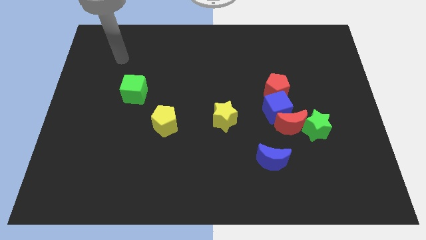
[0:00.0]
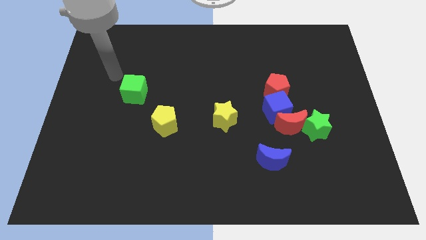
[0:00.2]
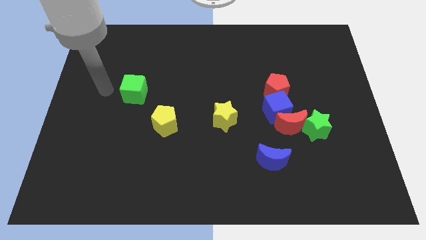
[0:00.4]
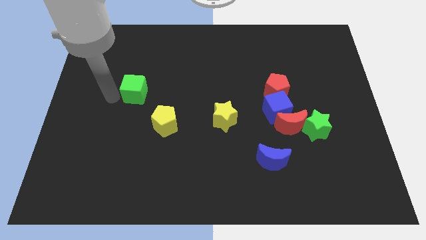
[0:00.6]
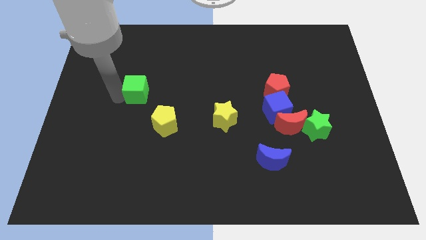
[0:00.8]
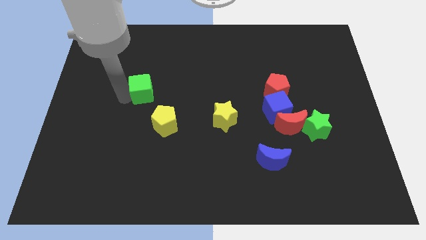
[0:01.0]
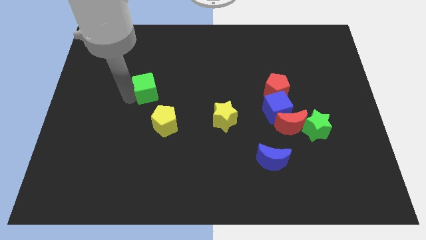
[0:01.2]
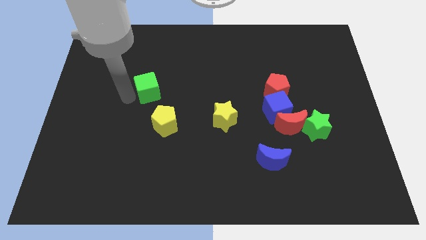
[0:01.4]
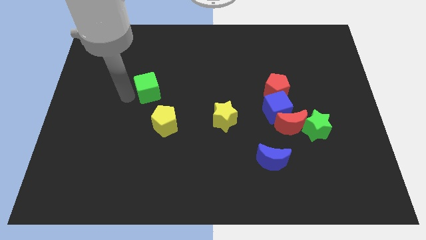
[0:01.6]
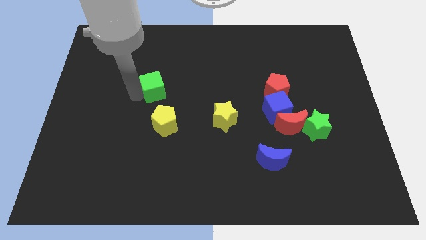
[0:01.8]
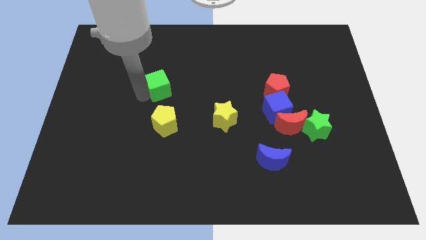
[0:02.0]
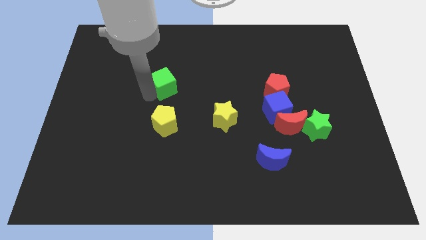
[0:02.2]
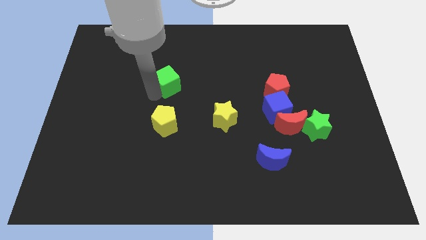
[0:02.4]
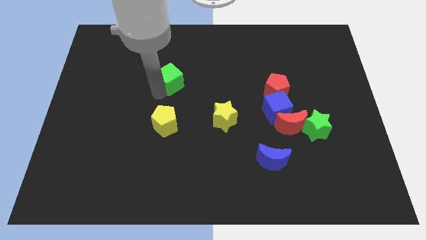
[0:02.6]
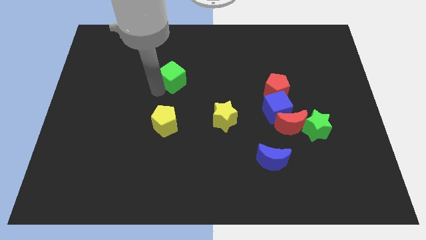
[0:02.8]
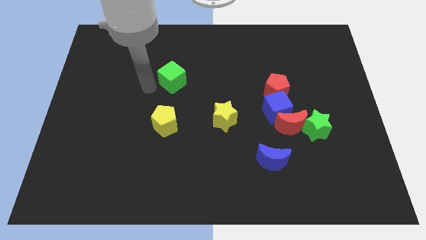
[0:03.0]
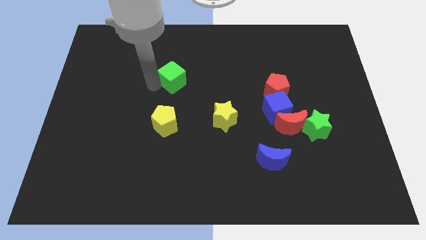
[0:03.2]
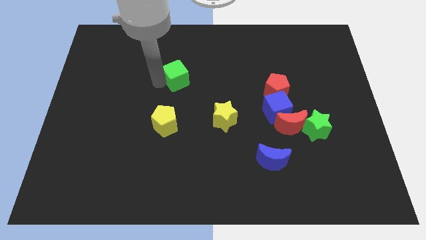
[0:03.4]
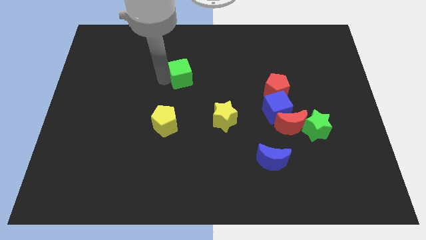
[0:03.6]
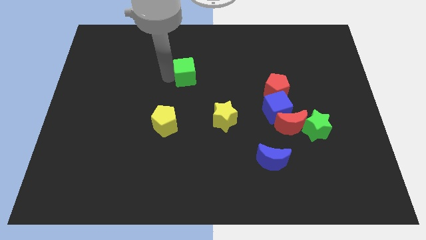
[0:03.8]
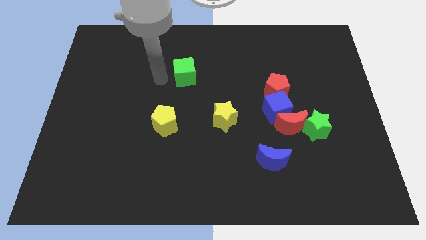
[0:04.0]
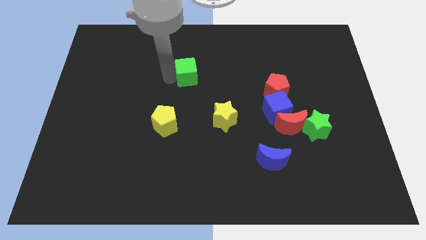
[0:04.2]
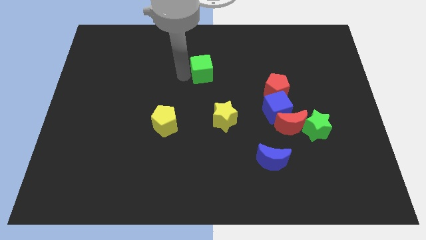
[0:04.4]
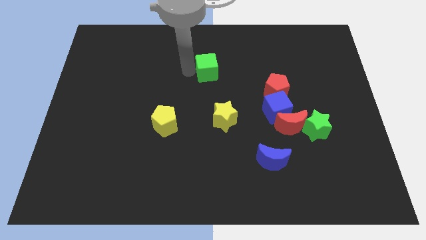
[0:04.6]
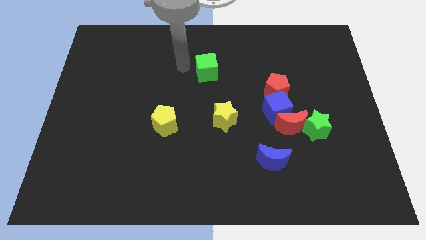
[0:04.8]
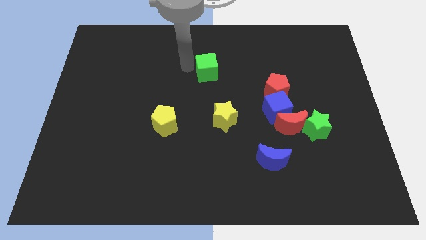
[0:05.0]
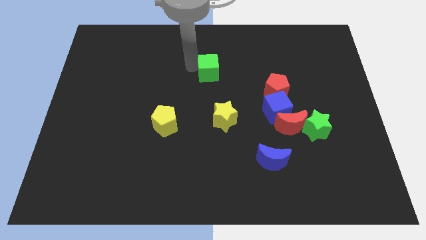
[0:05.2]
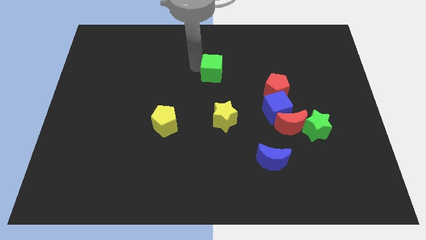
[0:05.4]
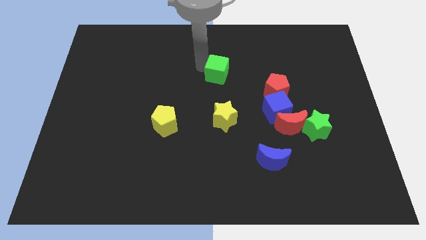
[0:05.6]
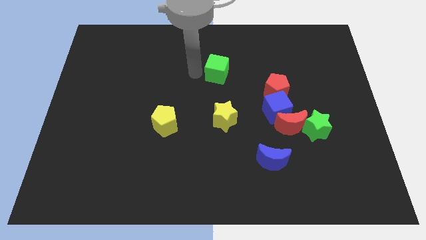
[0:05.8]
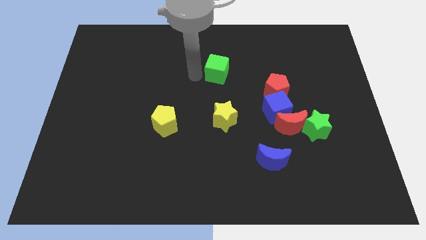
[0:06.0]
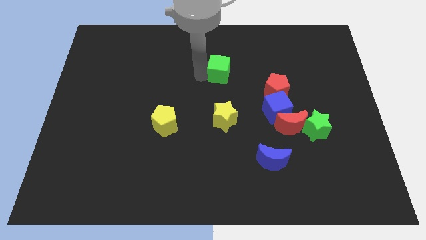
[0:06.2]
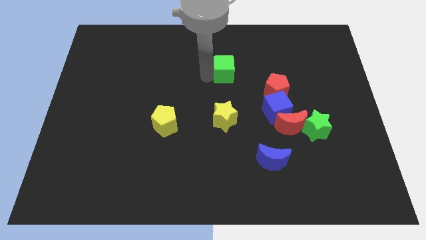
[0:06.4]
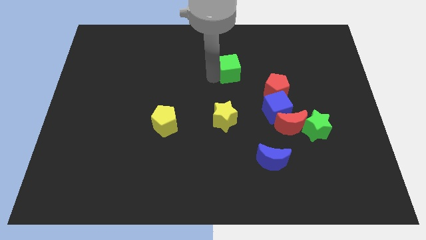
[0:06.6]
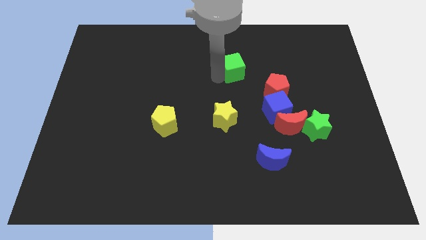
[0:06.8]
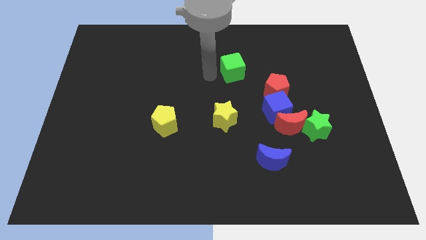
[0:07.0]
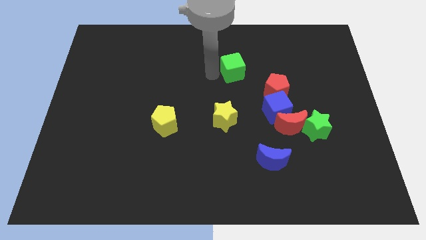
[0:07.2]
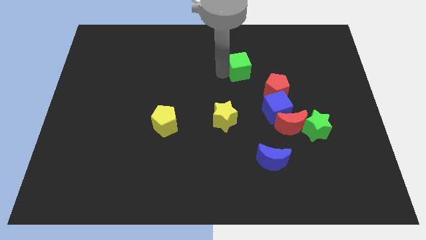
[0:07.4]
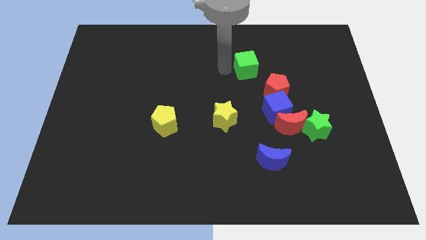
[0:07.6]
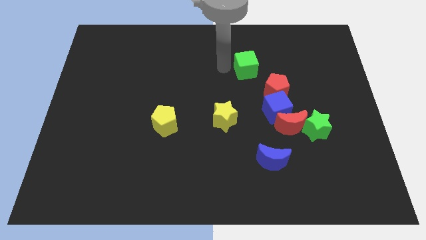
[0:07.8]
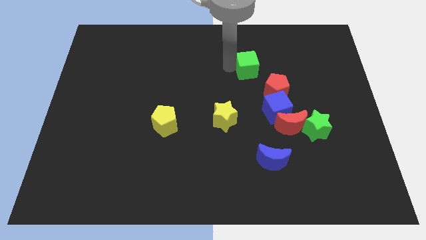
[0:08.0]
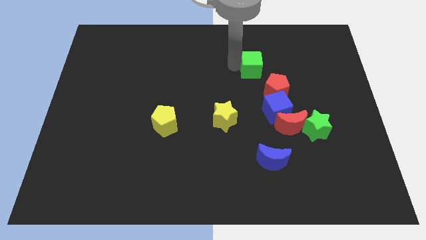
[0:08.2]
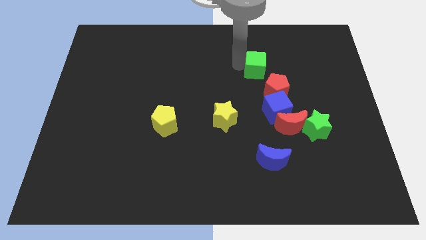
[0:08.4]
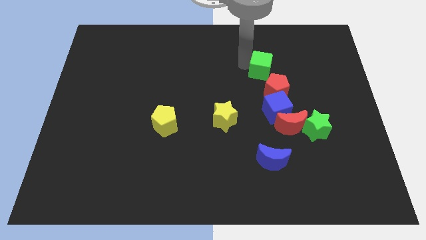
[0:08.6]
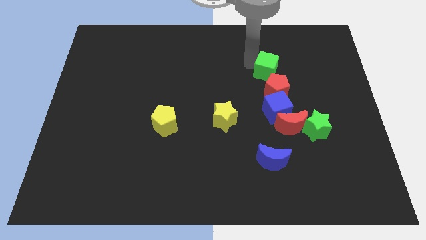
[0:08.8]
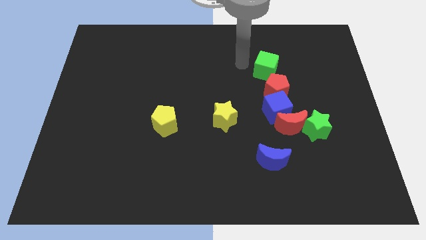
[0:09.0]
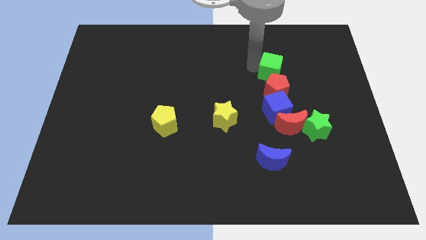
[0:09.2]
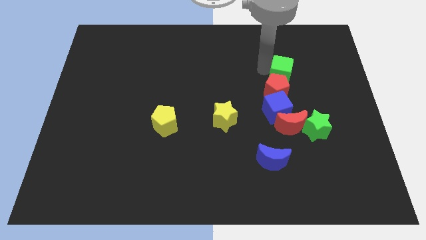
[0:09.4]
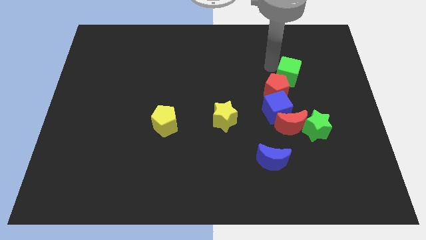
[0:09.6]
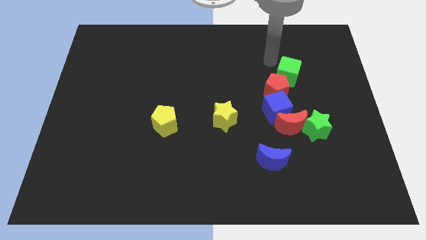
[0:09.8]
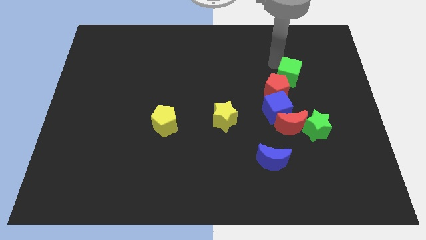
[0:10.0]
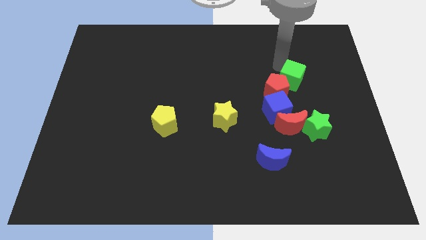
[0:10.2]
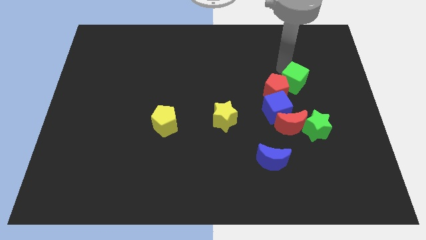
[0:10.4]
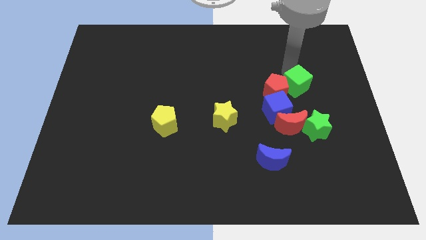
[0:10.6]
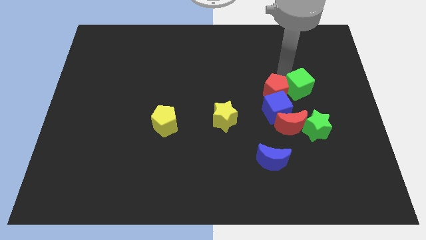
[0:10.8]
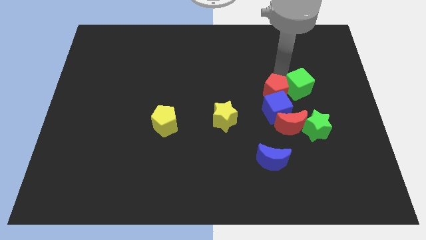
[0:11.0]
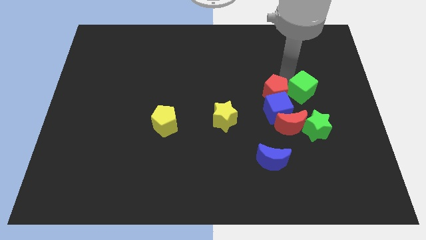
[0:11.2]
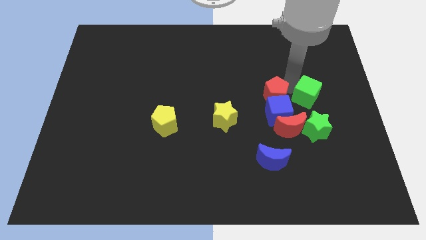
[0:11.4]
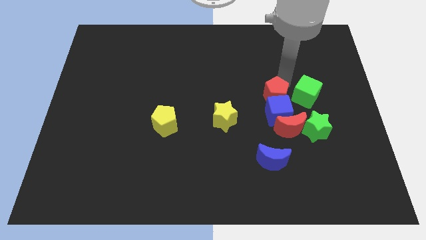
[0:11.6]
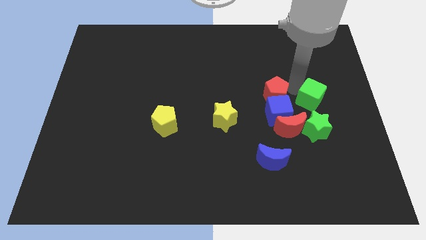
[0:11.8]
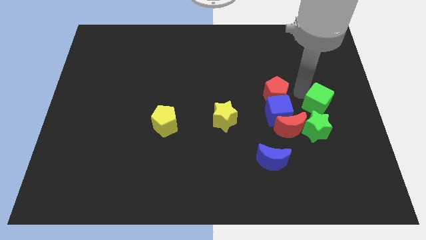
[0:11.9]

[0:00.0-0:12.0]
push the green cube to the top right side of the green star
